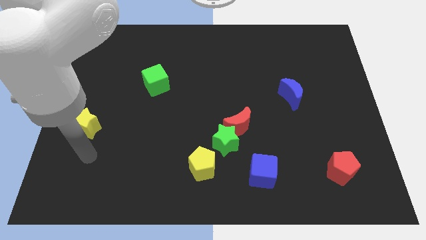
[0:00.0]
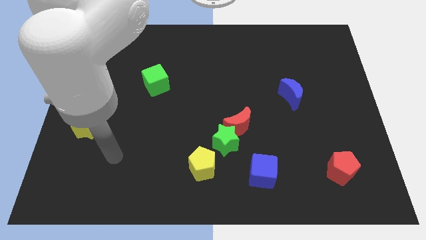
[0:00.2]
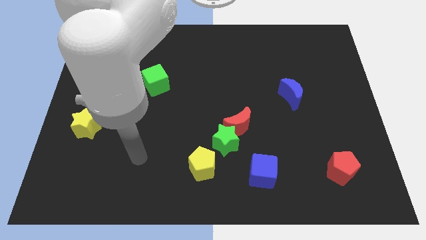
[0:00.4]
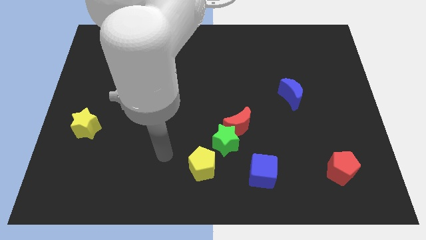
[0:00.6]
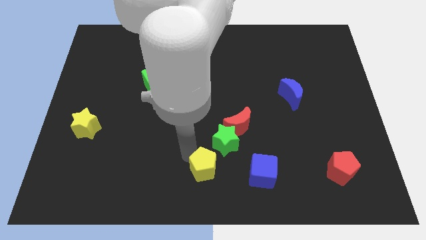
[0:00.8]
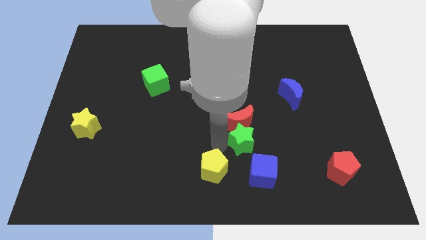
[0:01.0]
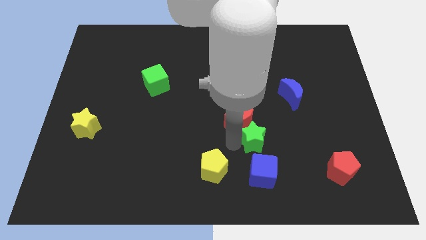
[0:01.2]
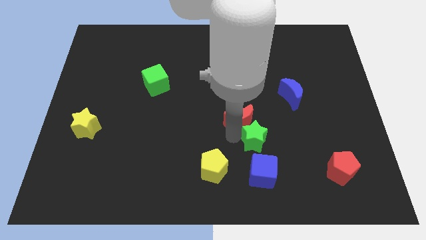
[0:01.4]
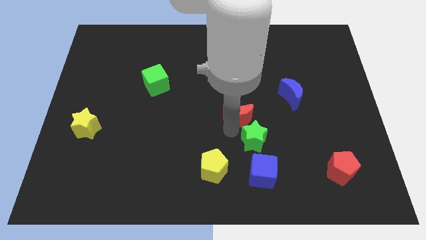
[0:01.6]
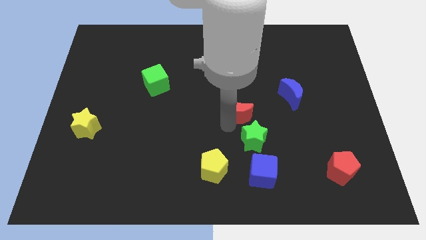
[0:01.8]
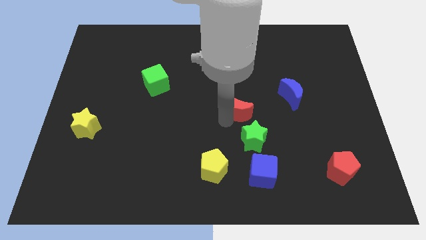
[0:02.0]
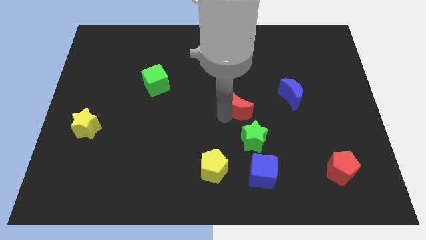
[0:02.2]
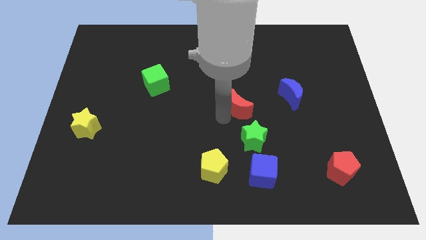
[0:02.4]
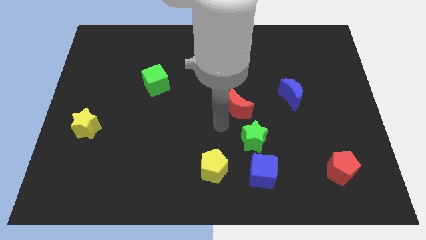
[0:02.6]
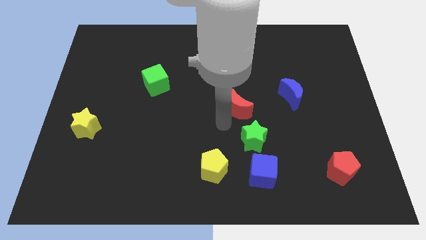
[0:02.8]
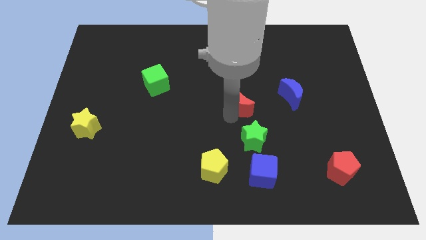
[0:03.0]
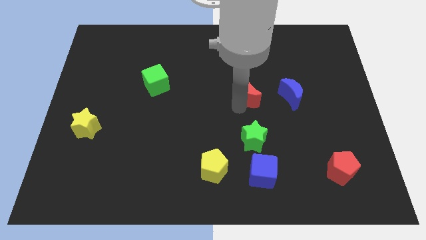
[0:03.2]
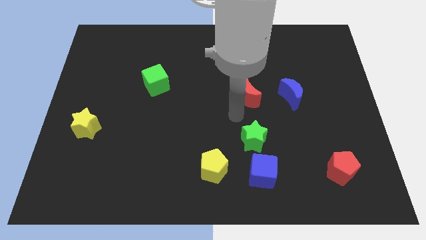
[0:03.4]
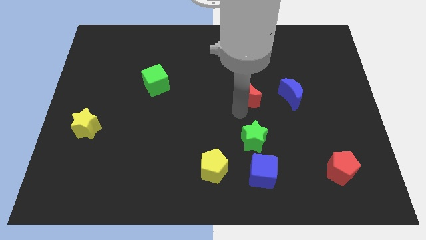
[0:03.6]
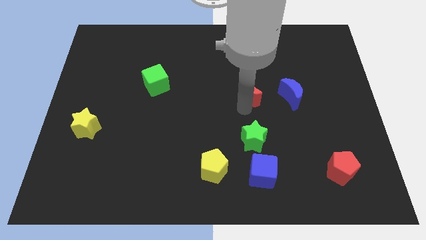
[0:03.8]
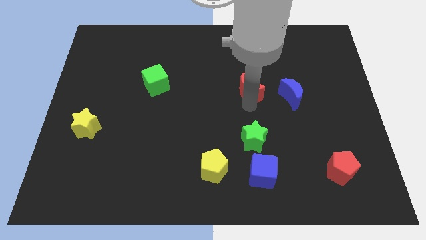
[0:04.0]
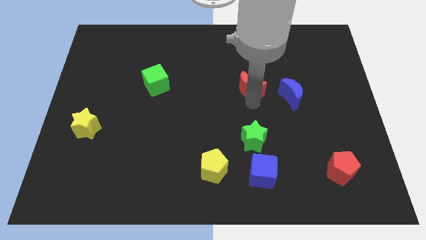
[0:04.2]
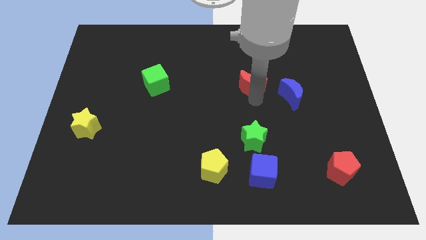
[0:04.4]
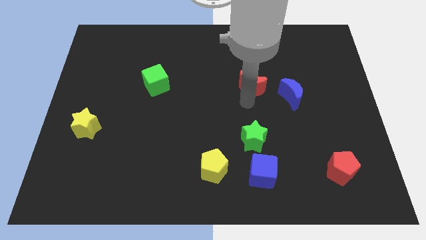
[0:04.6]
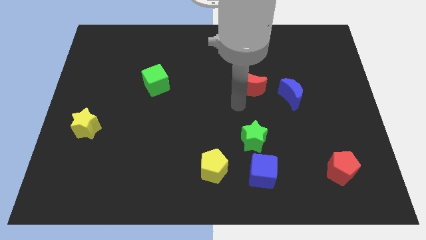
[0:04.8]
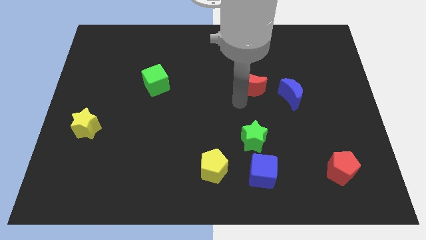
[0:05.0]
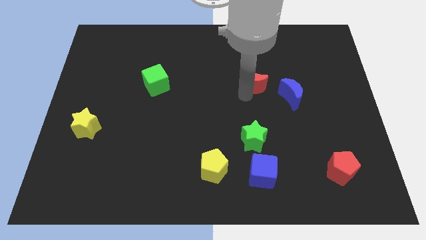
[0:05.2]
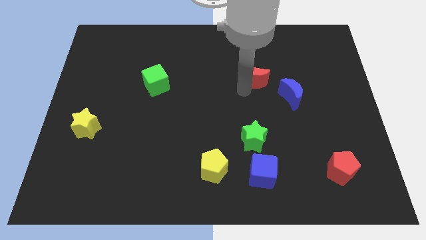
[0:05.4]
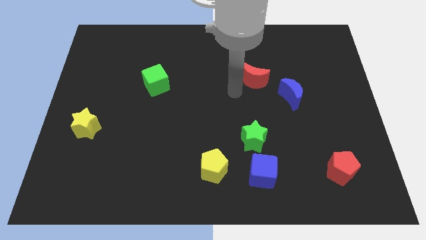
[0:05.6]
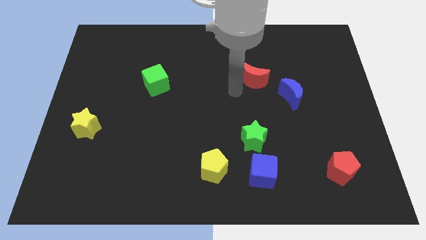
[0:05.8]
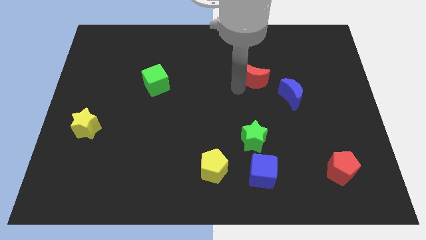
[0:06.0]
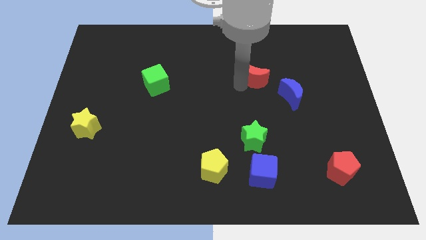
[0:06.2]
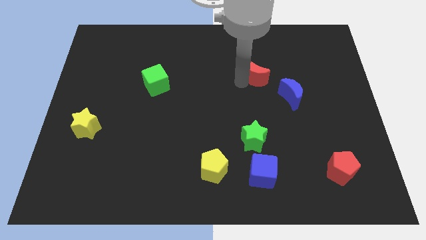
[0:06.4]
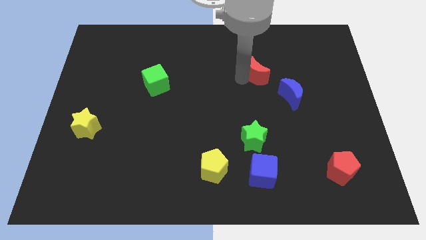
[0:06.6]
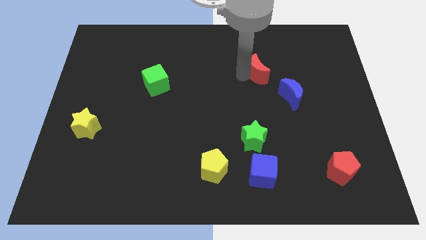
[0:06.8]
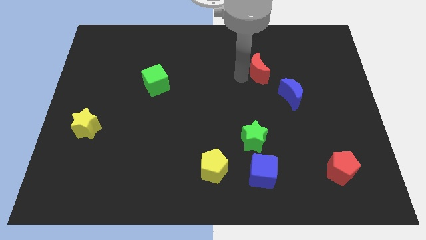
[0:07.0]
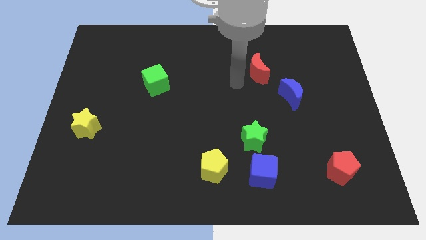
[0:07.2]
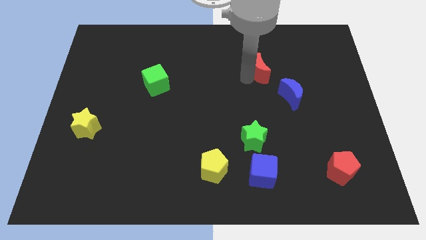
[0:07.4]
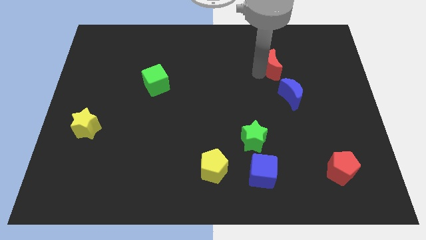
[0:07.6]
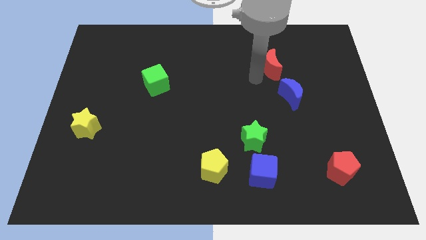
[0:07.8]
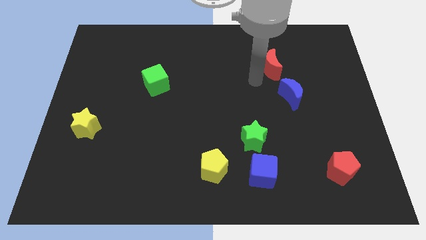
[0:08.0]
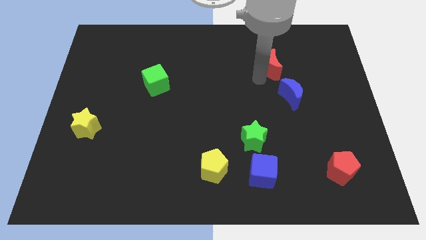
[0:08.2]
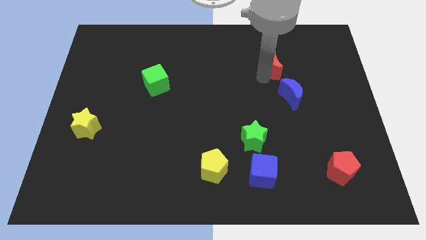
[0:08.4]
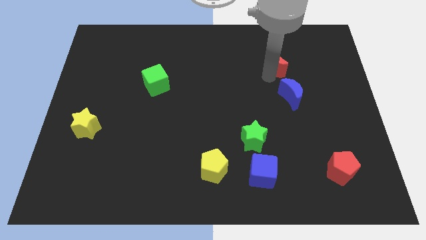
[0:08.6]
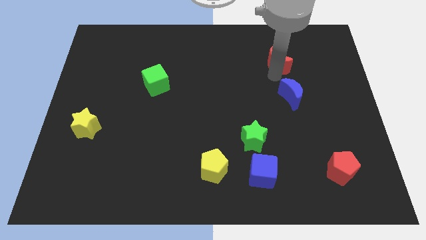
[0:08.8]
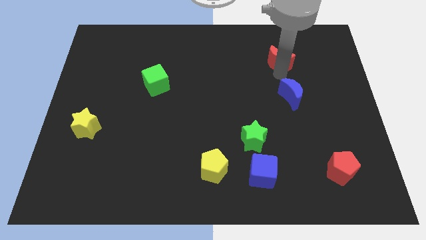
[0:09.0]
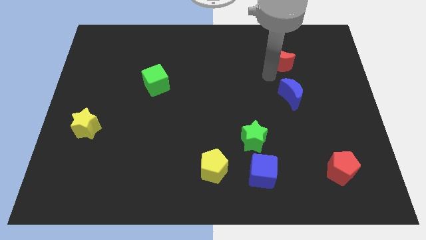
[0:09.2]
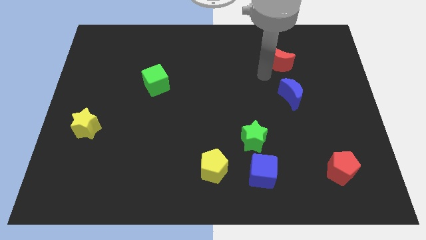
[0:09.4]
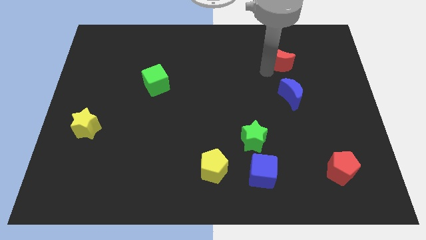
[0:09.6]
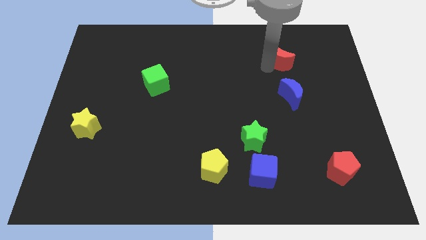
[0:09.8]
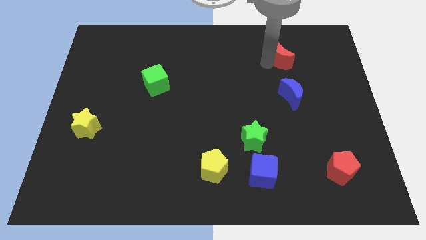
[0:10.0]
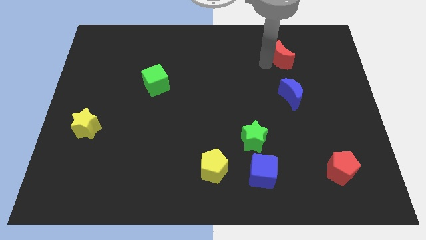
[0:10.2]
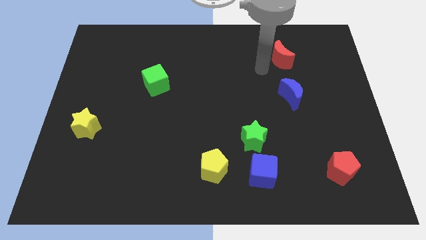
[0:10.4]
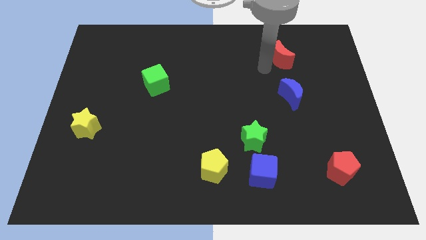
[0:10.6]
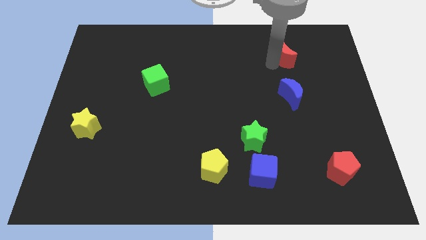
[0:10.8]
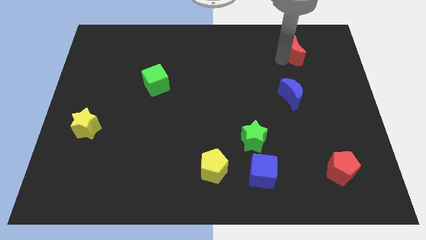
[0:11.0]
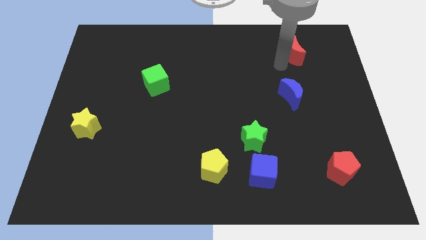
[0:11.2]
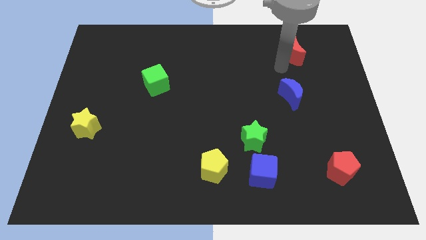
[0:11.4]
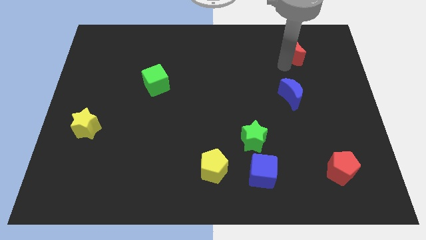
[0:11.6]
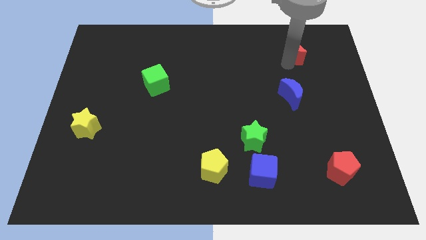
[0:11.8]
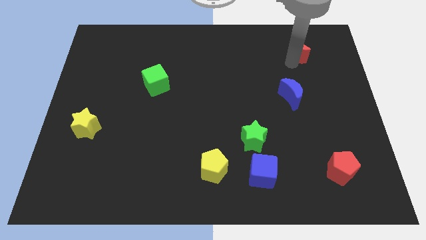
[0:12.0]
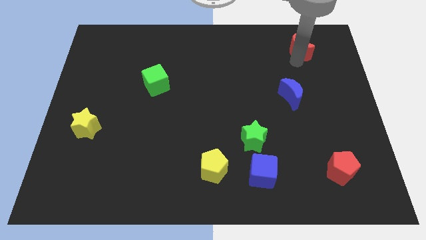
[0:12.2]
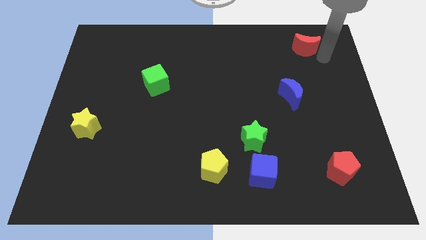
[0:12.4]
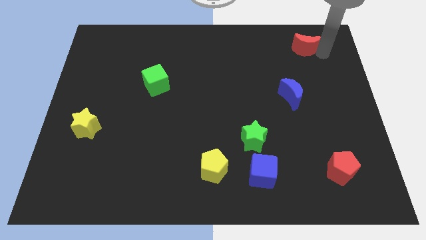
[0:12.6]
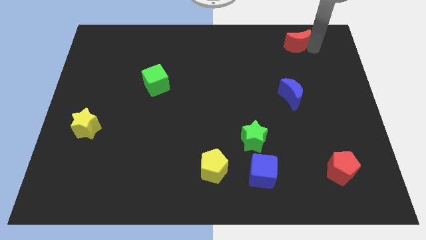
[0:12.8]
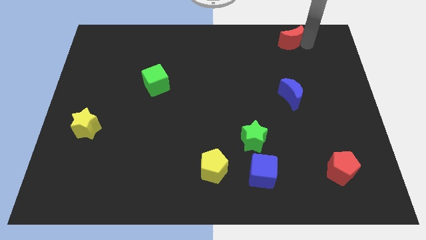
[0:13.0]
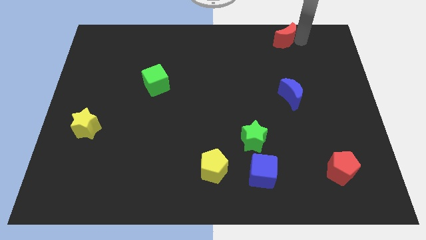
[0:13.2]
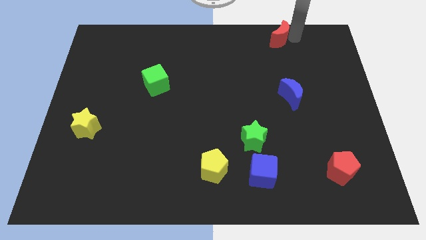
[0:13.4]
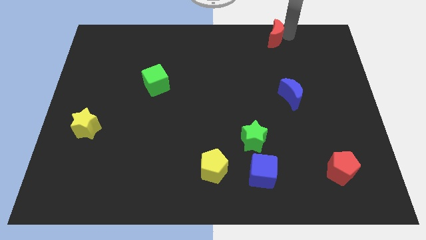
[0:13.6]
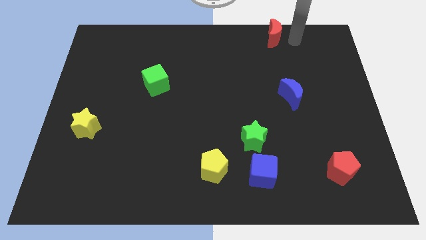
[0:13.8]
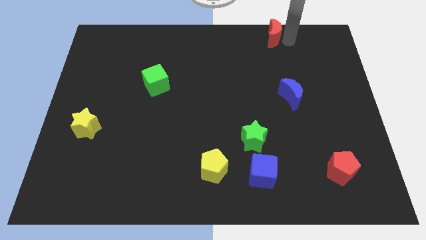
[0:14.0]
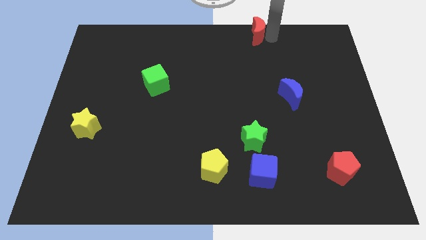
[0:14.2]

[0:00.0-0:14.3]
put the red moon to the top side
